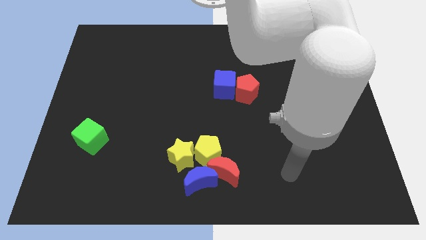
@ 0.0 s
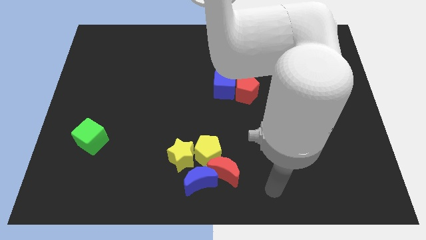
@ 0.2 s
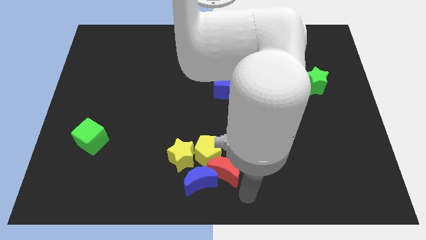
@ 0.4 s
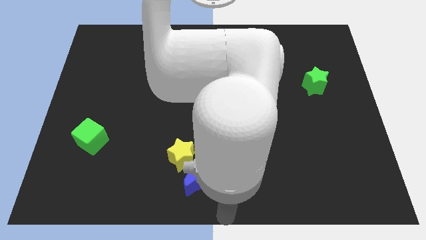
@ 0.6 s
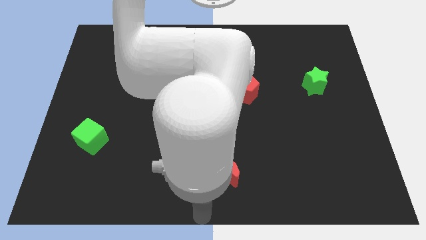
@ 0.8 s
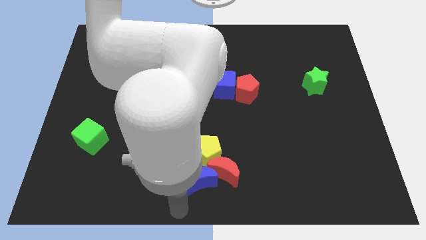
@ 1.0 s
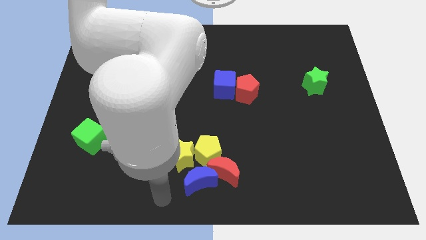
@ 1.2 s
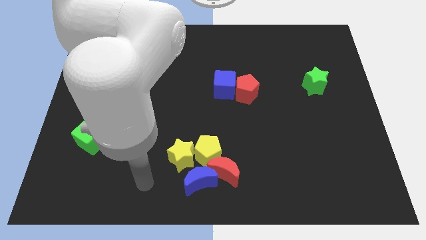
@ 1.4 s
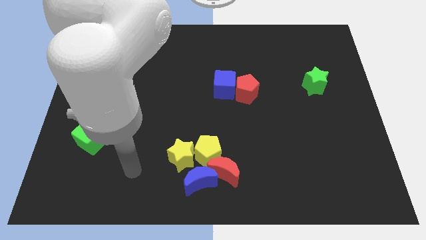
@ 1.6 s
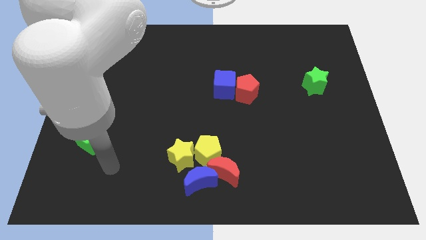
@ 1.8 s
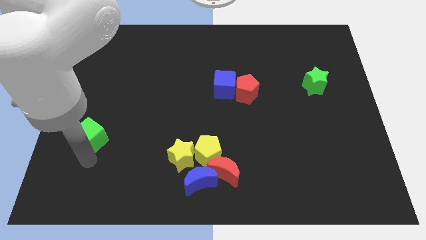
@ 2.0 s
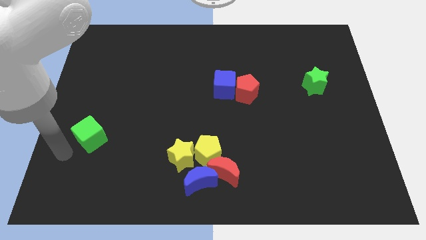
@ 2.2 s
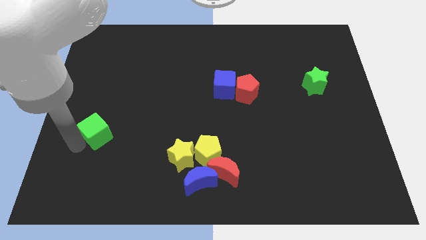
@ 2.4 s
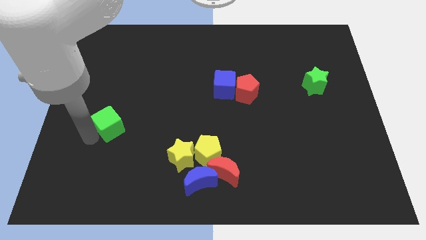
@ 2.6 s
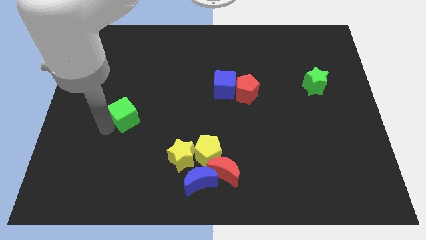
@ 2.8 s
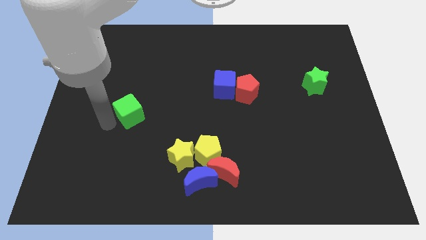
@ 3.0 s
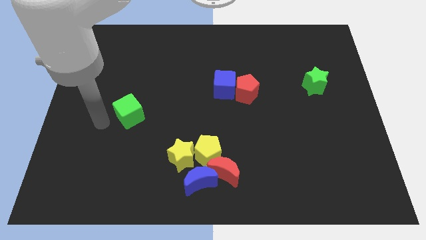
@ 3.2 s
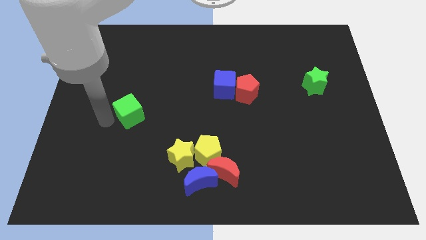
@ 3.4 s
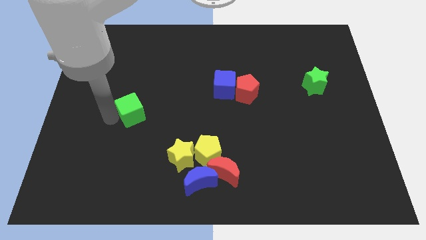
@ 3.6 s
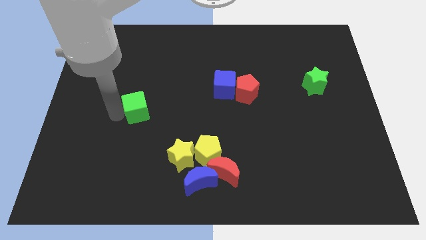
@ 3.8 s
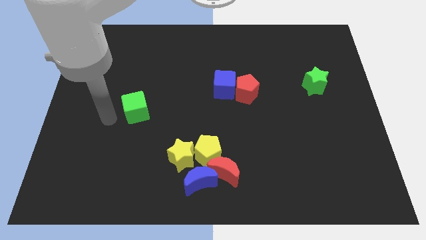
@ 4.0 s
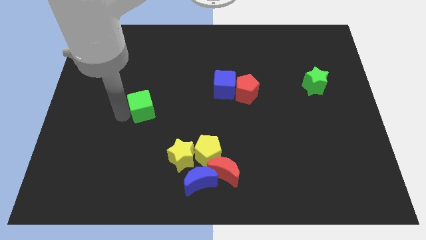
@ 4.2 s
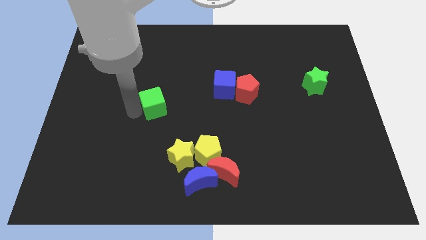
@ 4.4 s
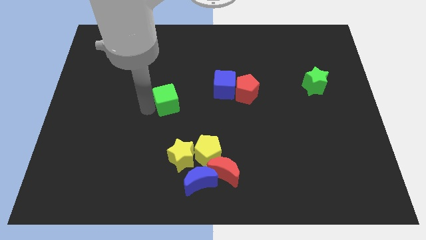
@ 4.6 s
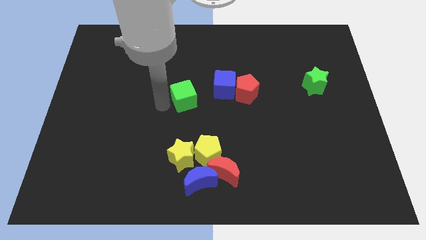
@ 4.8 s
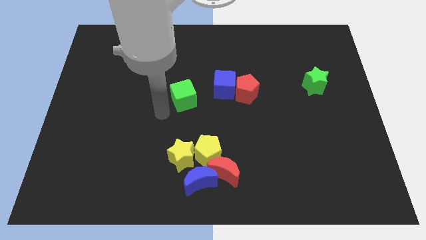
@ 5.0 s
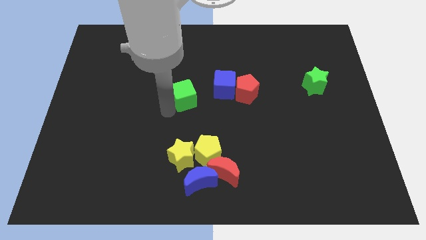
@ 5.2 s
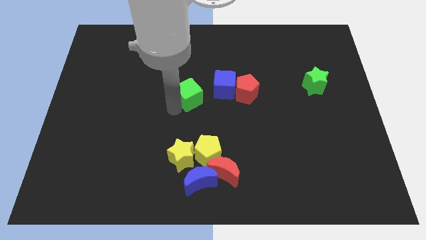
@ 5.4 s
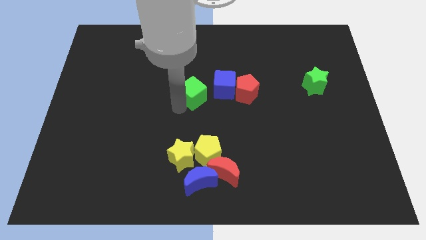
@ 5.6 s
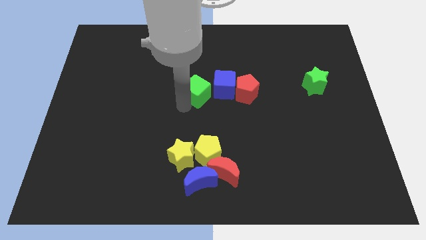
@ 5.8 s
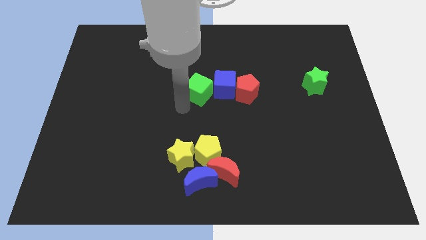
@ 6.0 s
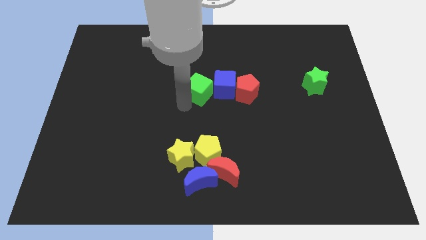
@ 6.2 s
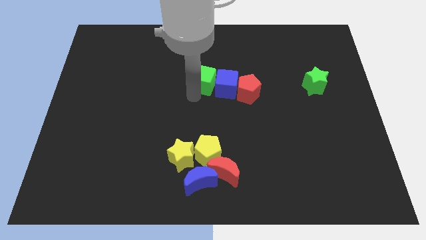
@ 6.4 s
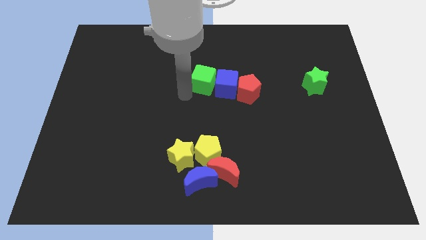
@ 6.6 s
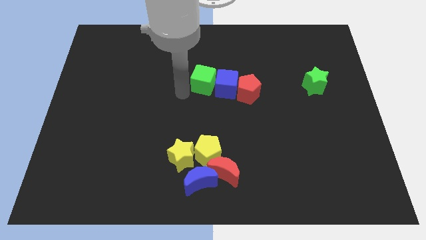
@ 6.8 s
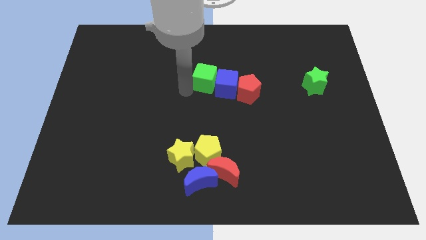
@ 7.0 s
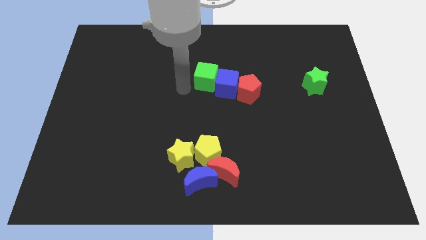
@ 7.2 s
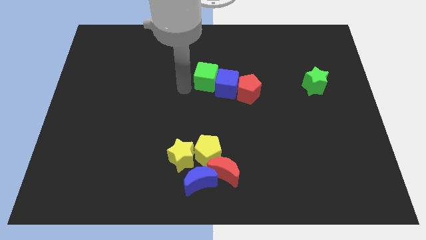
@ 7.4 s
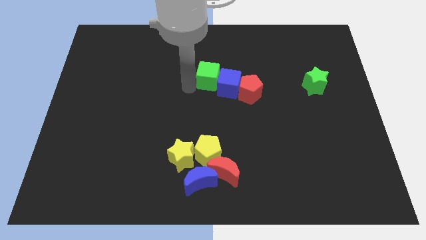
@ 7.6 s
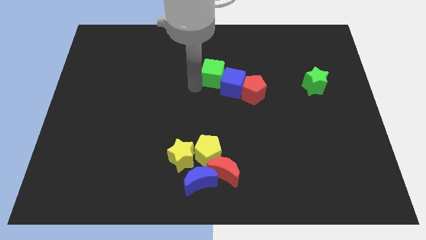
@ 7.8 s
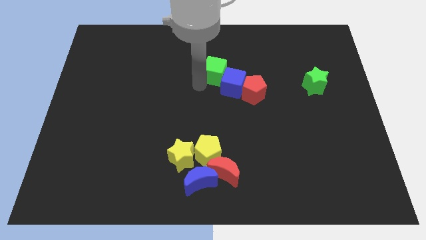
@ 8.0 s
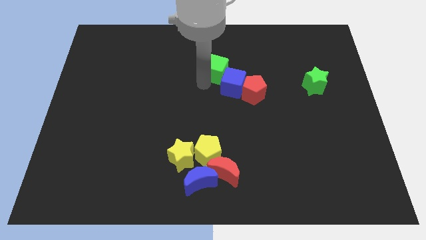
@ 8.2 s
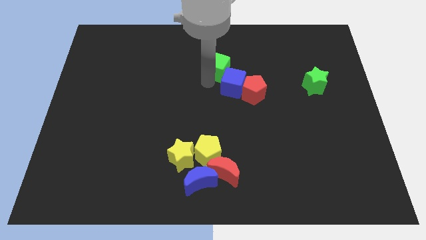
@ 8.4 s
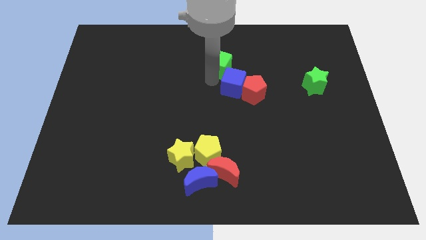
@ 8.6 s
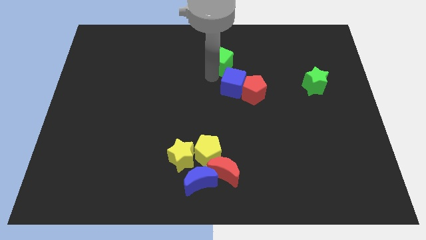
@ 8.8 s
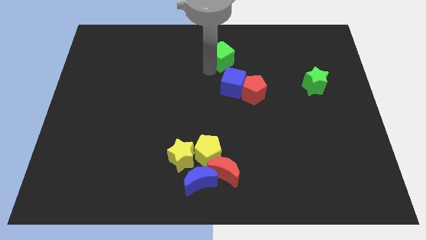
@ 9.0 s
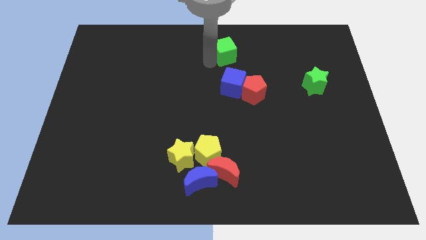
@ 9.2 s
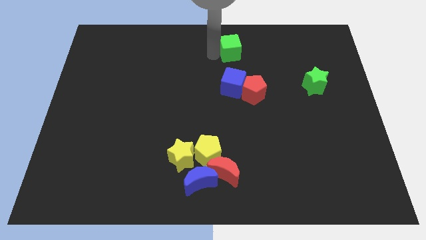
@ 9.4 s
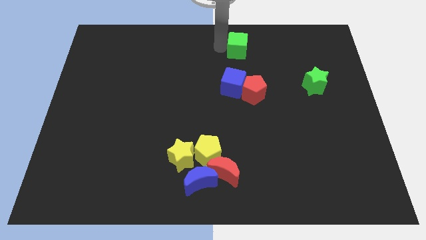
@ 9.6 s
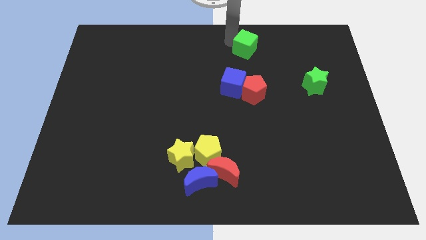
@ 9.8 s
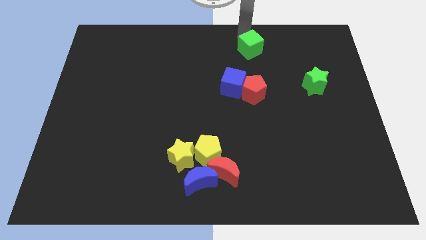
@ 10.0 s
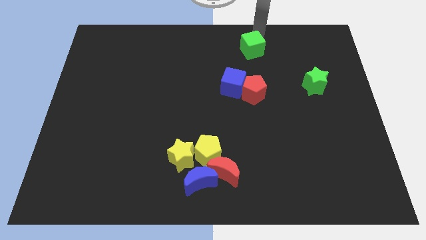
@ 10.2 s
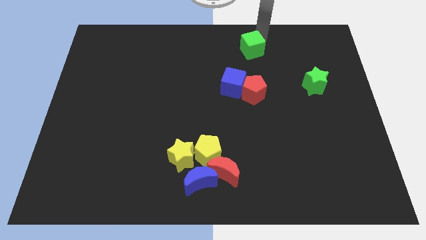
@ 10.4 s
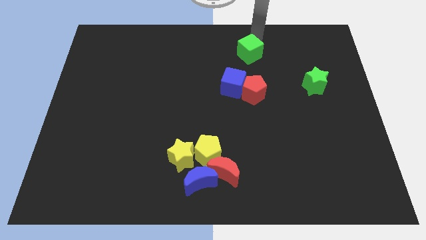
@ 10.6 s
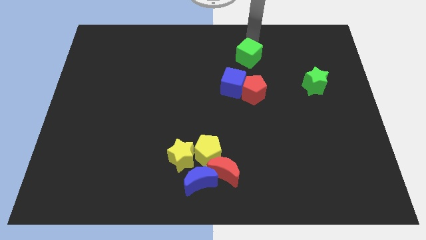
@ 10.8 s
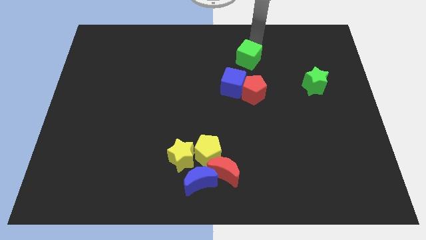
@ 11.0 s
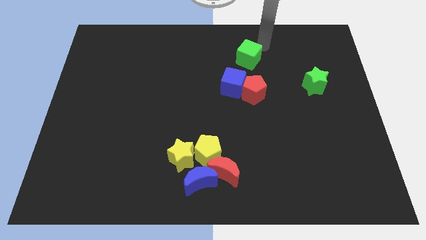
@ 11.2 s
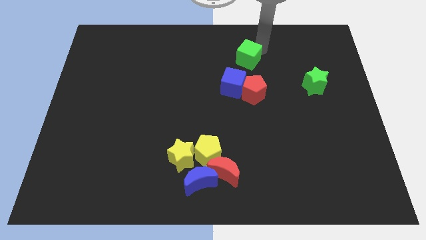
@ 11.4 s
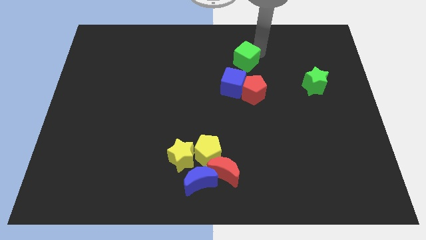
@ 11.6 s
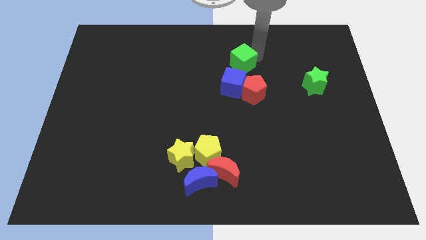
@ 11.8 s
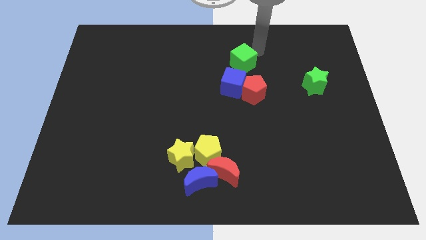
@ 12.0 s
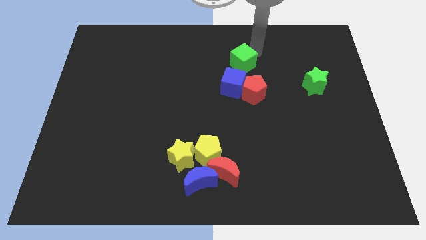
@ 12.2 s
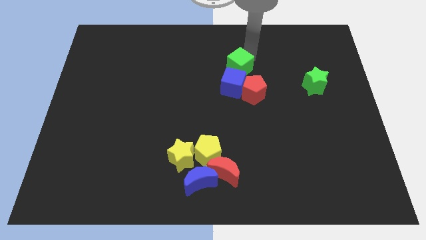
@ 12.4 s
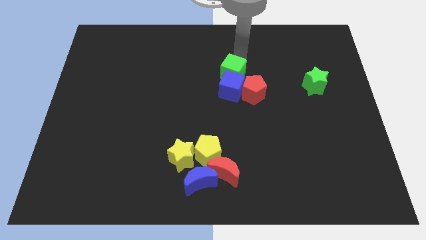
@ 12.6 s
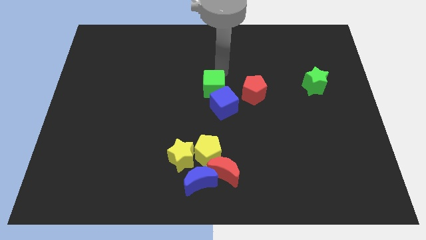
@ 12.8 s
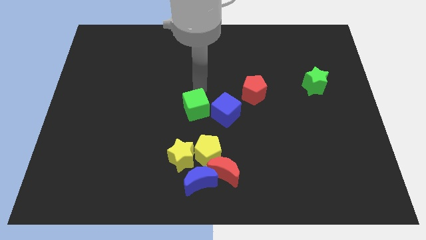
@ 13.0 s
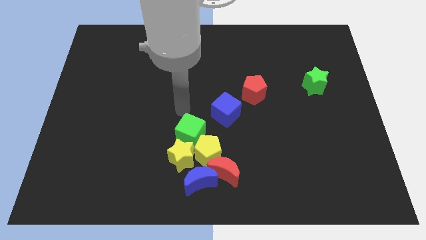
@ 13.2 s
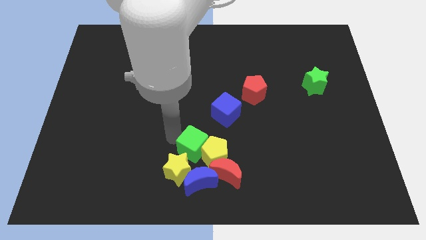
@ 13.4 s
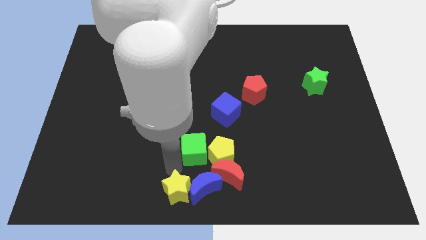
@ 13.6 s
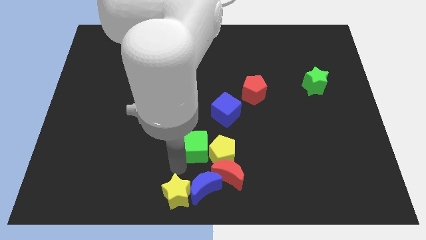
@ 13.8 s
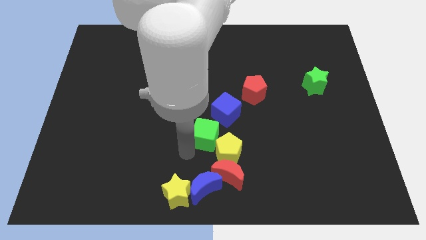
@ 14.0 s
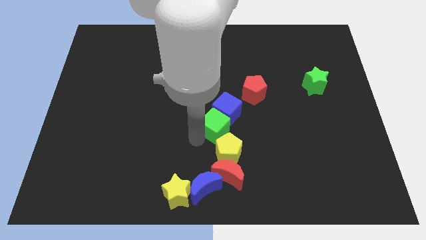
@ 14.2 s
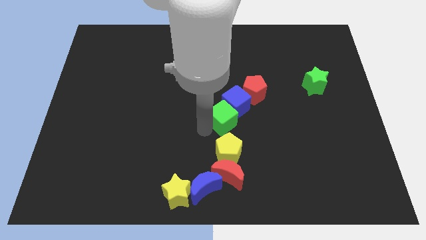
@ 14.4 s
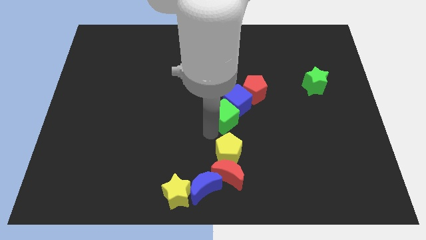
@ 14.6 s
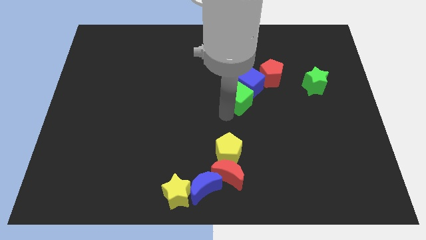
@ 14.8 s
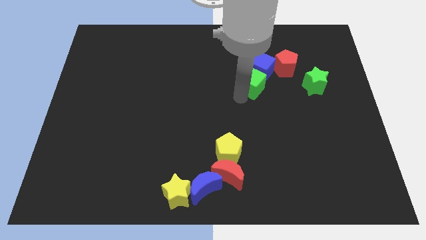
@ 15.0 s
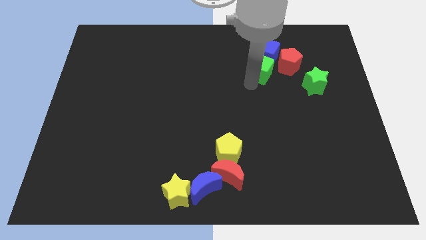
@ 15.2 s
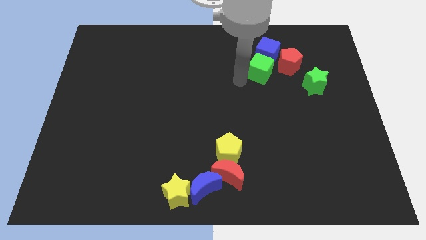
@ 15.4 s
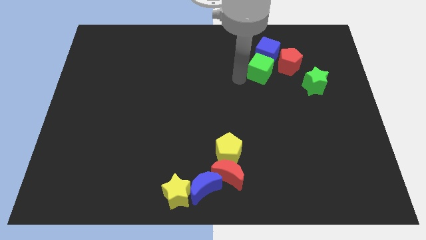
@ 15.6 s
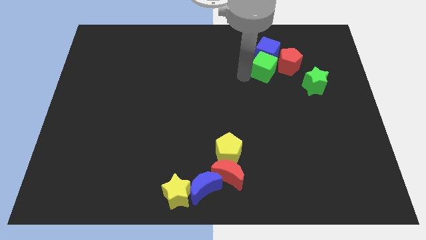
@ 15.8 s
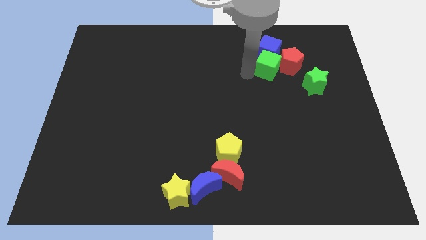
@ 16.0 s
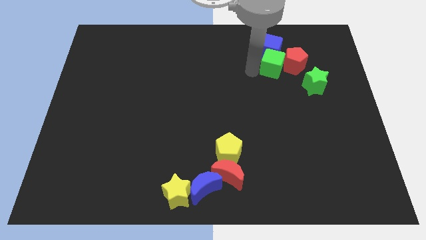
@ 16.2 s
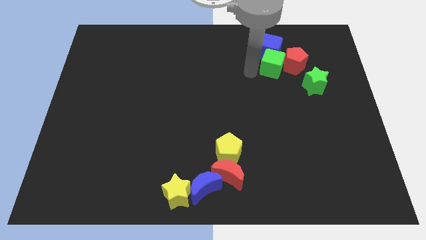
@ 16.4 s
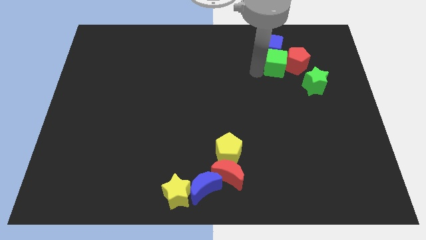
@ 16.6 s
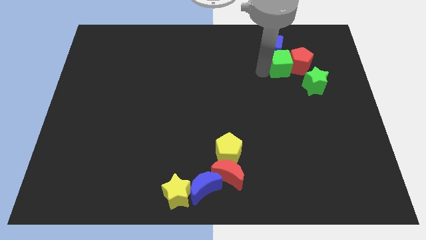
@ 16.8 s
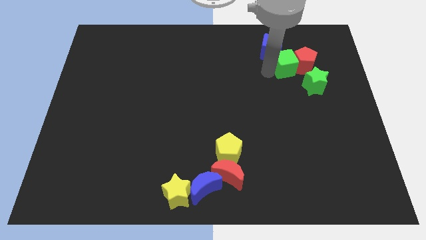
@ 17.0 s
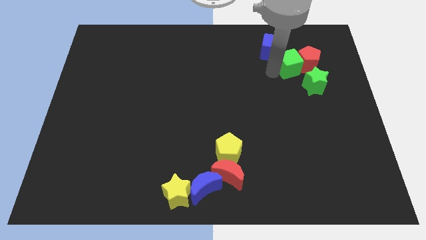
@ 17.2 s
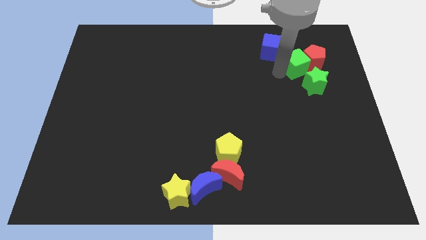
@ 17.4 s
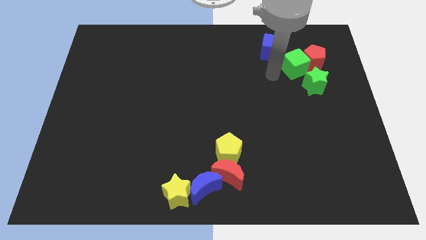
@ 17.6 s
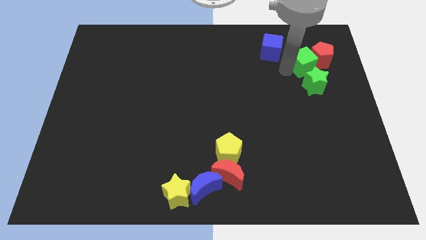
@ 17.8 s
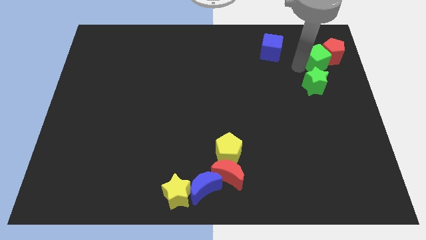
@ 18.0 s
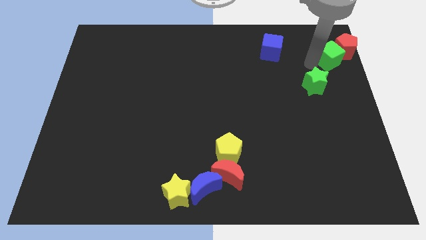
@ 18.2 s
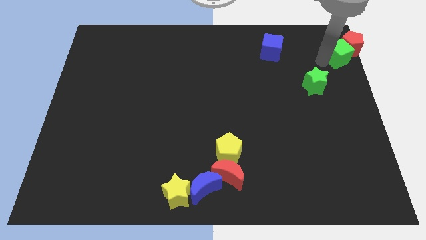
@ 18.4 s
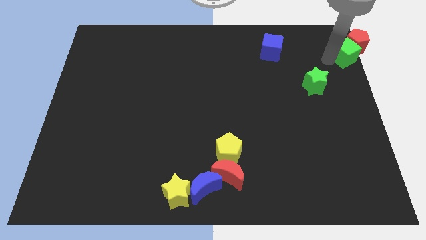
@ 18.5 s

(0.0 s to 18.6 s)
move the green cube to the top right of the board
